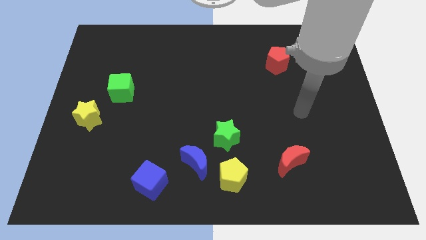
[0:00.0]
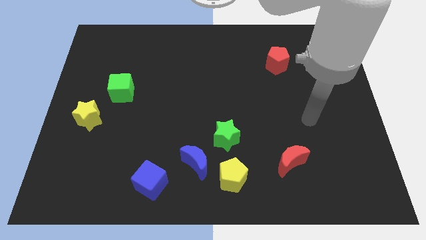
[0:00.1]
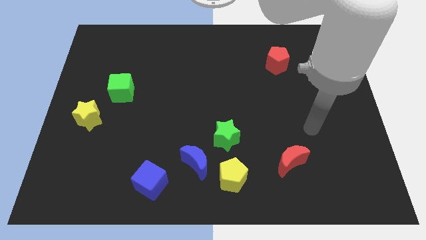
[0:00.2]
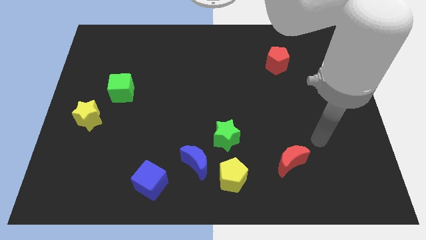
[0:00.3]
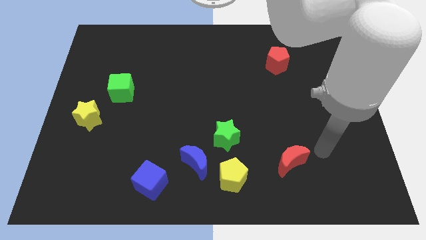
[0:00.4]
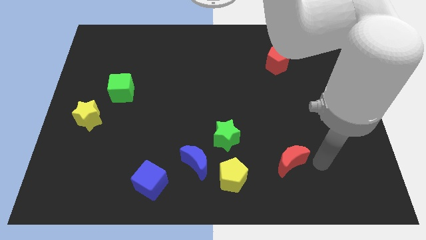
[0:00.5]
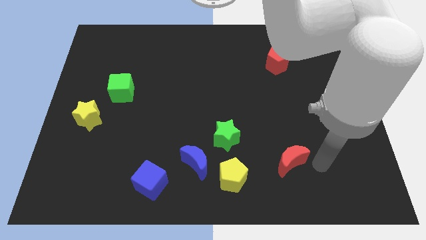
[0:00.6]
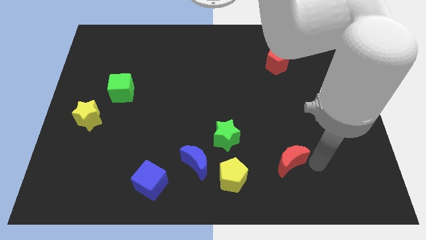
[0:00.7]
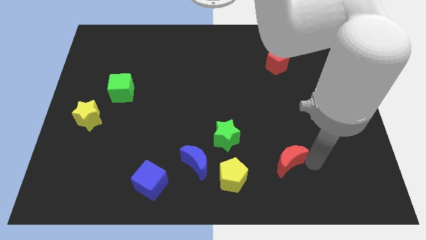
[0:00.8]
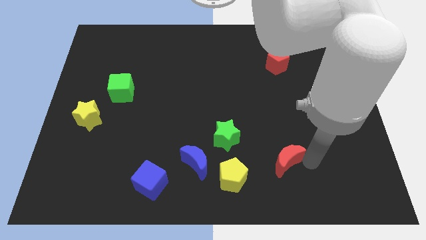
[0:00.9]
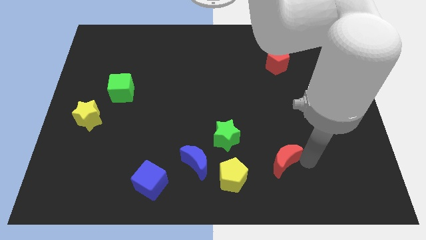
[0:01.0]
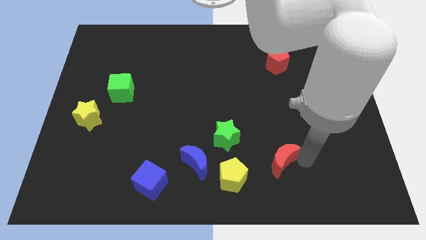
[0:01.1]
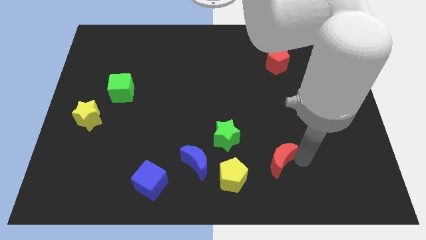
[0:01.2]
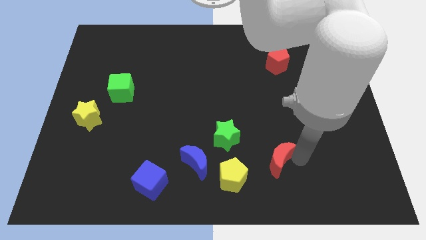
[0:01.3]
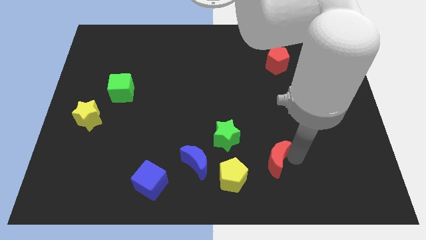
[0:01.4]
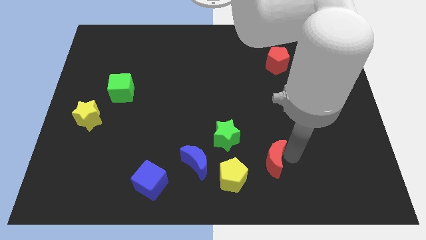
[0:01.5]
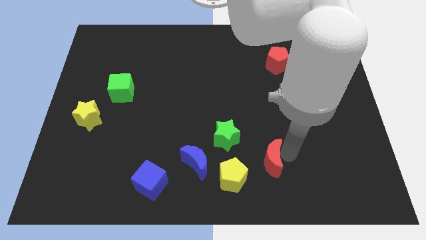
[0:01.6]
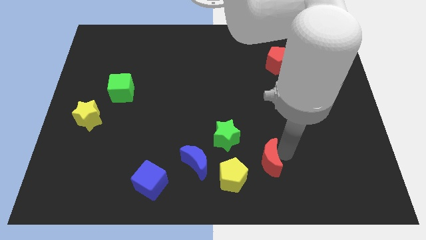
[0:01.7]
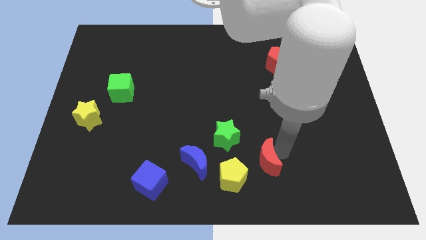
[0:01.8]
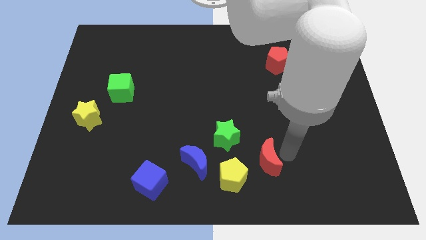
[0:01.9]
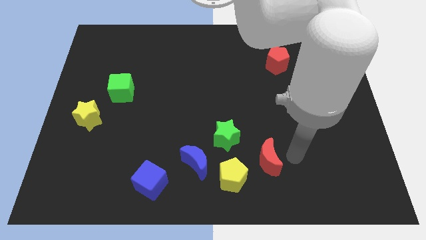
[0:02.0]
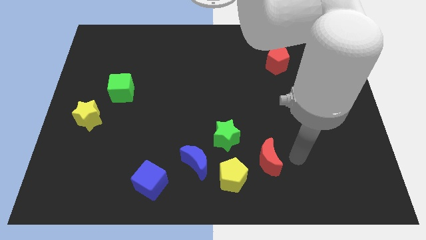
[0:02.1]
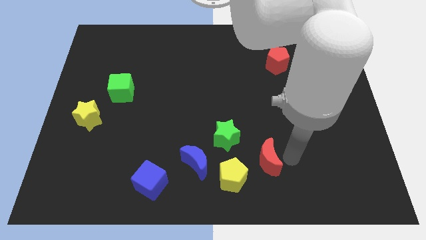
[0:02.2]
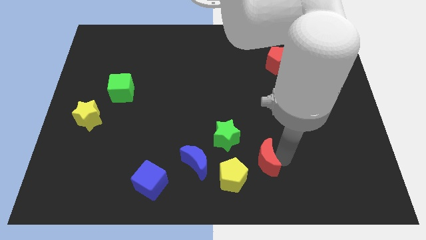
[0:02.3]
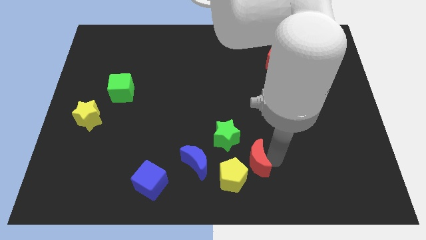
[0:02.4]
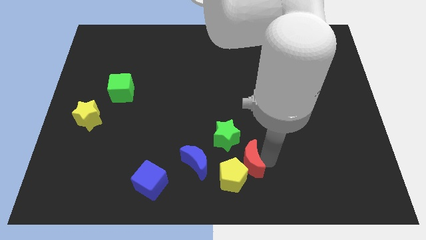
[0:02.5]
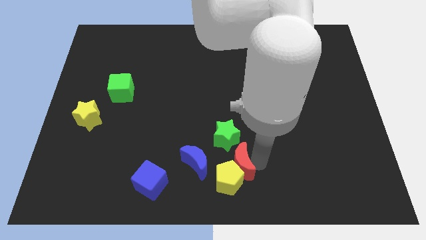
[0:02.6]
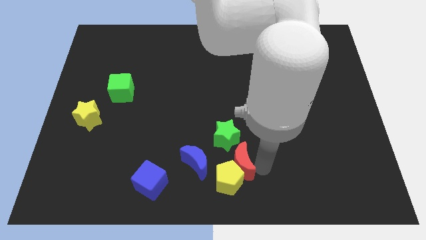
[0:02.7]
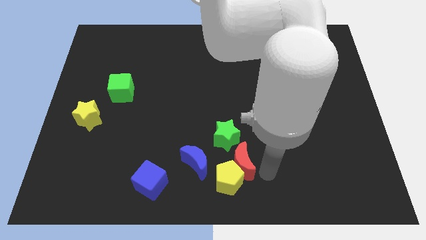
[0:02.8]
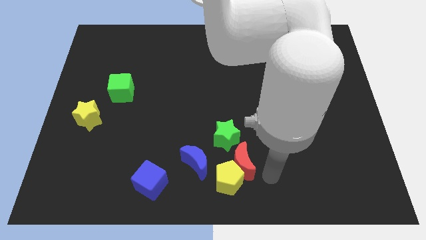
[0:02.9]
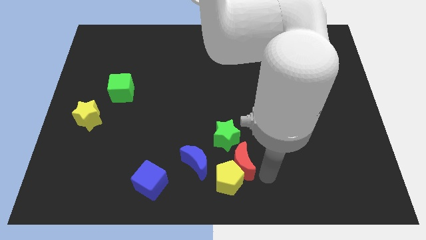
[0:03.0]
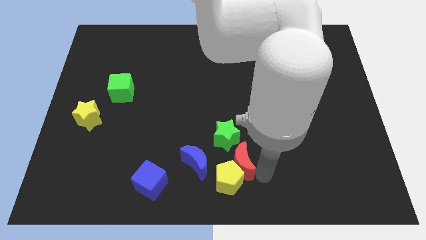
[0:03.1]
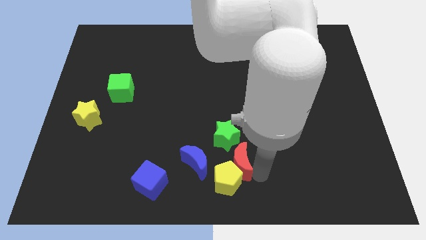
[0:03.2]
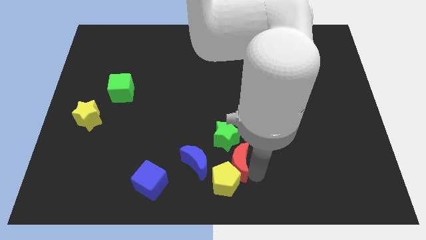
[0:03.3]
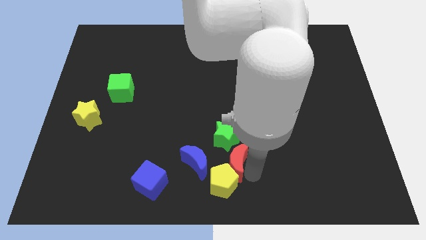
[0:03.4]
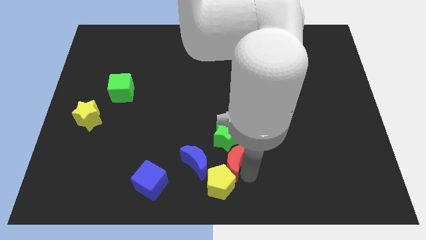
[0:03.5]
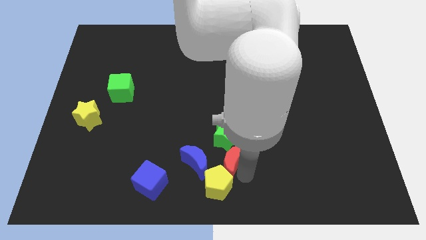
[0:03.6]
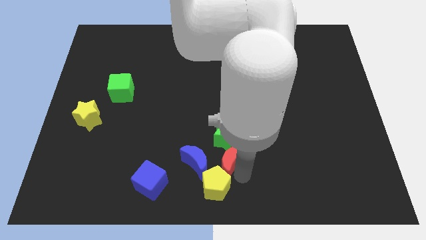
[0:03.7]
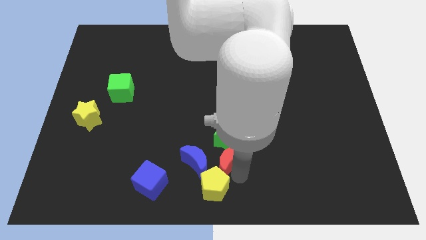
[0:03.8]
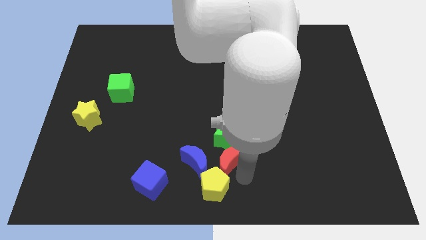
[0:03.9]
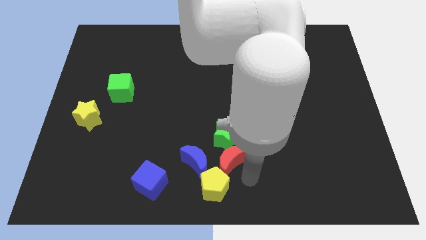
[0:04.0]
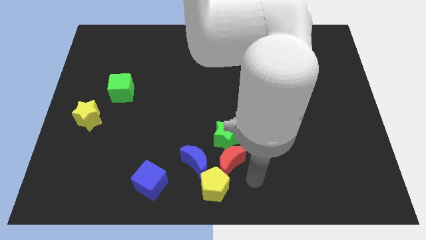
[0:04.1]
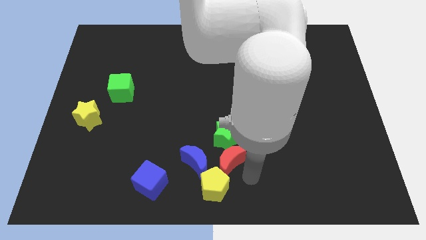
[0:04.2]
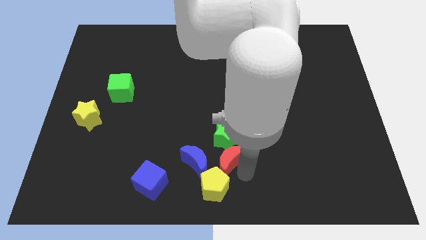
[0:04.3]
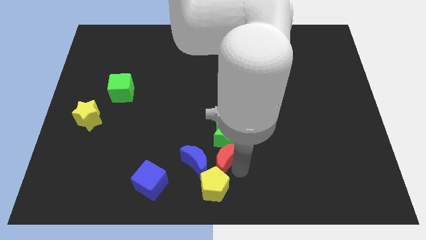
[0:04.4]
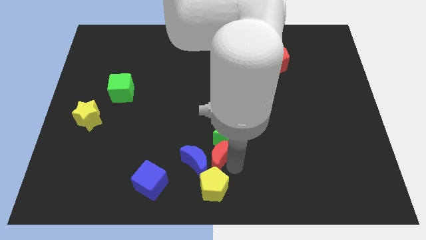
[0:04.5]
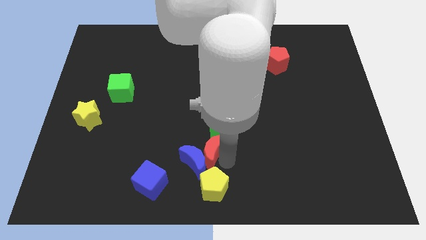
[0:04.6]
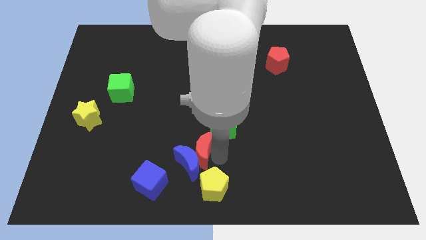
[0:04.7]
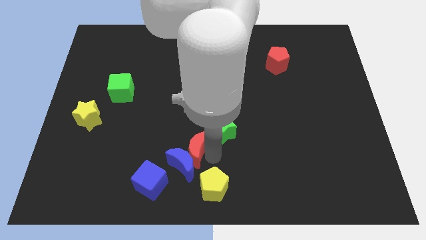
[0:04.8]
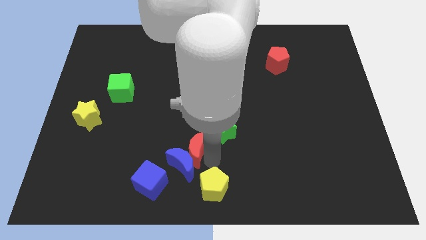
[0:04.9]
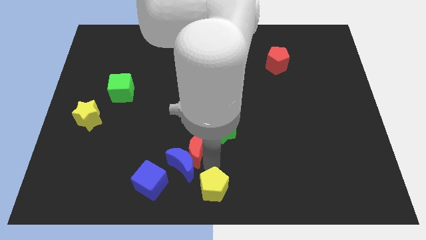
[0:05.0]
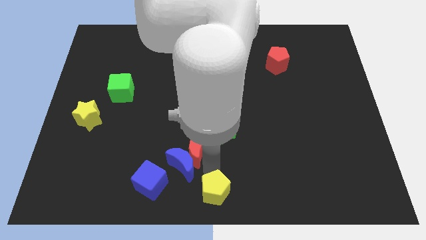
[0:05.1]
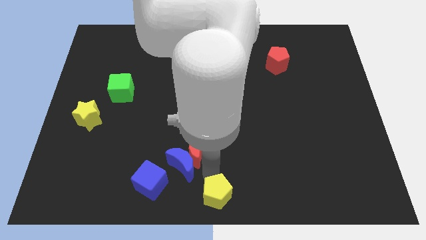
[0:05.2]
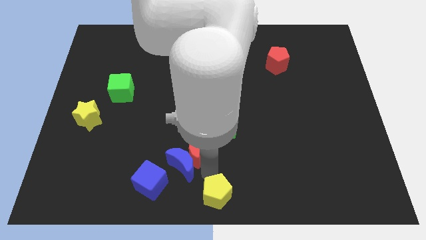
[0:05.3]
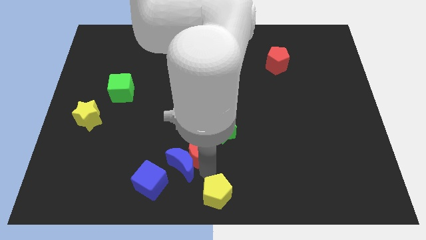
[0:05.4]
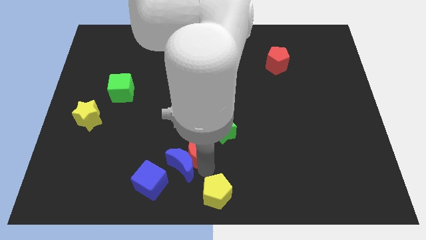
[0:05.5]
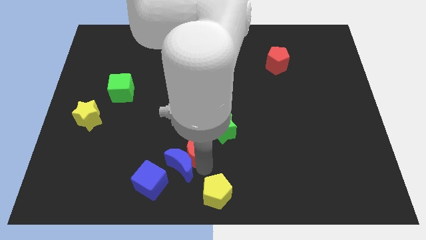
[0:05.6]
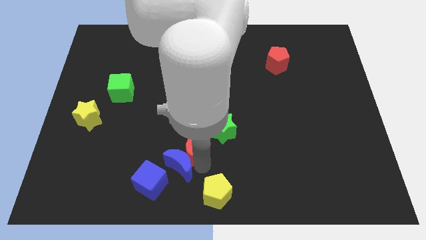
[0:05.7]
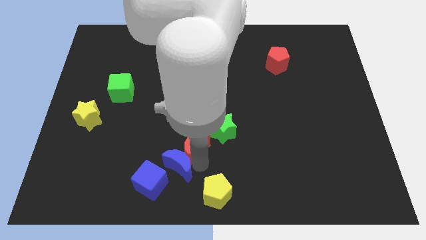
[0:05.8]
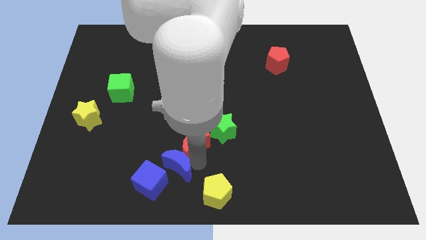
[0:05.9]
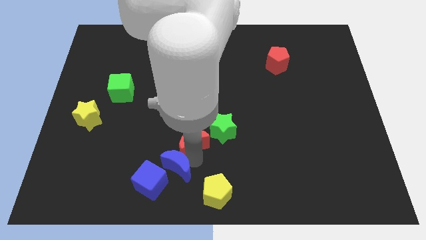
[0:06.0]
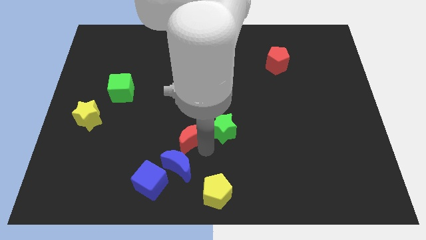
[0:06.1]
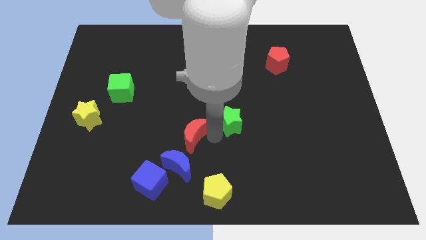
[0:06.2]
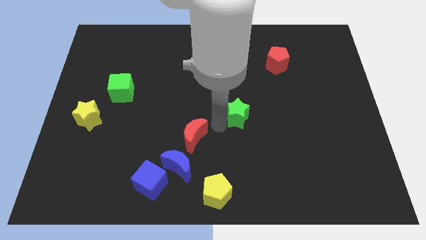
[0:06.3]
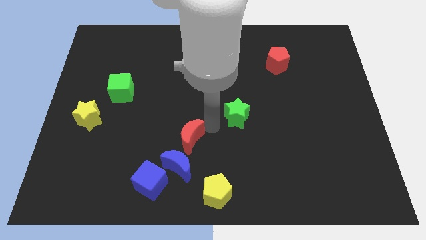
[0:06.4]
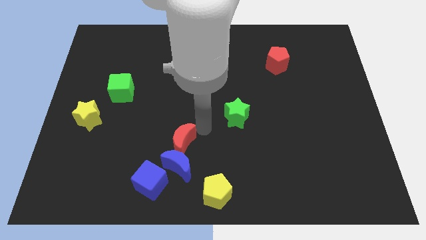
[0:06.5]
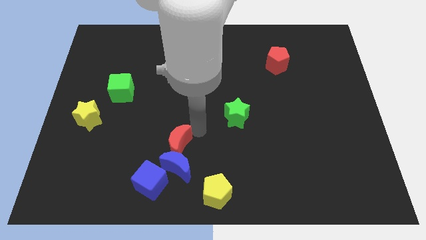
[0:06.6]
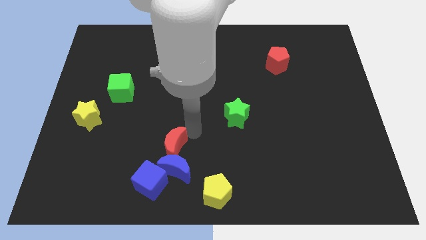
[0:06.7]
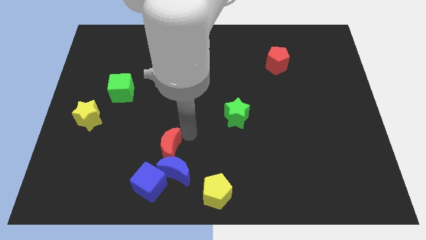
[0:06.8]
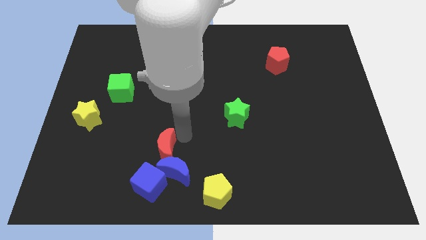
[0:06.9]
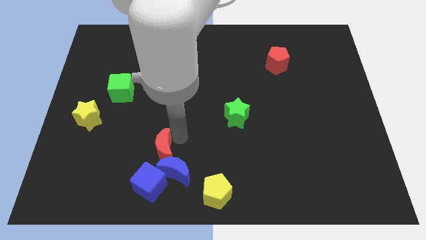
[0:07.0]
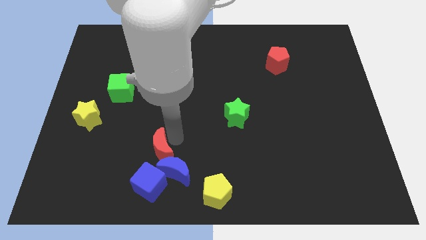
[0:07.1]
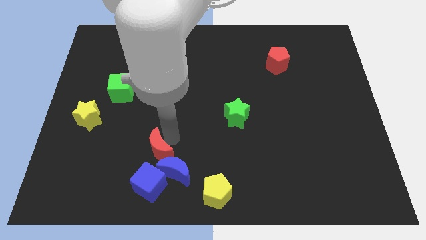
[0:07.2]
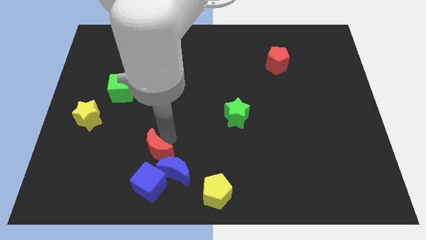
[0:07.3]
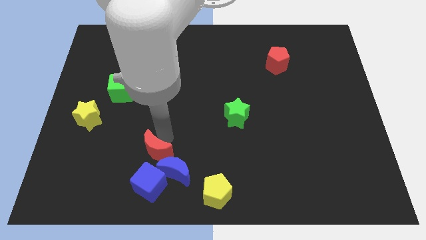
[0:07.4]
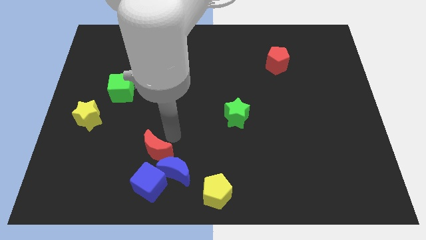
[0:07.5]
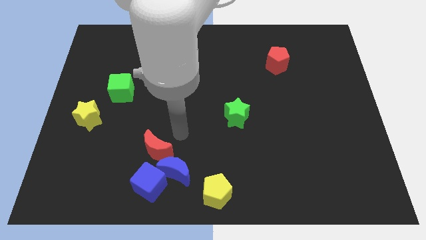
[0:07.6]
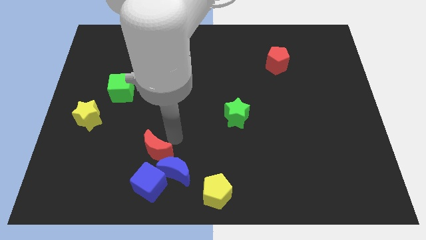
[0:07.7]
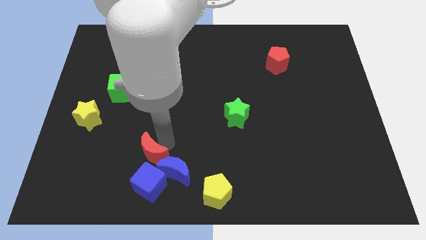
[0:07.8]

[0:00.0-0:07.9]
slide the red moon left of the blue moon

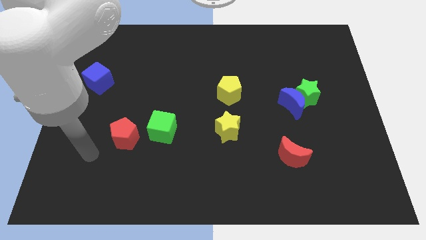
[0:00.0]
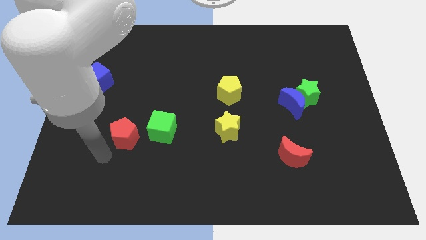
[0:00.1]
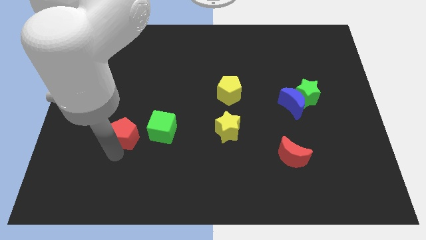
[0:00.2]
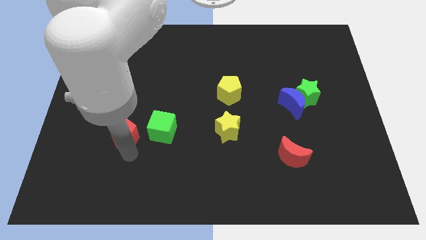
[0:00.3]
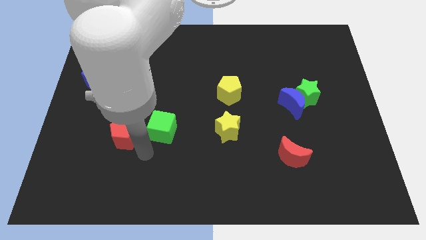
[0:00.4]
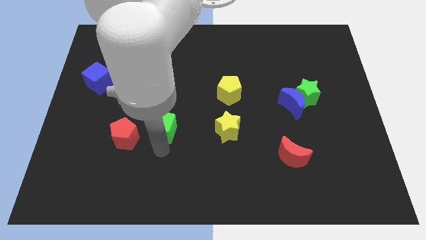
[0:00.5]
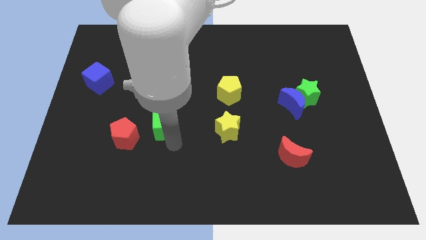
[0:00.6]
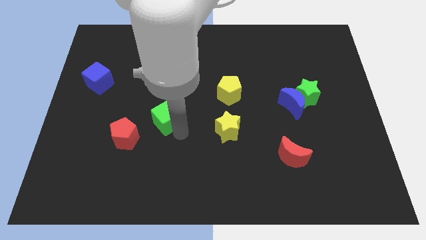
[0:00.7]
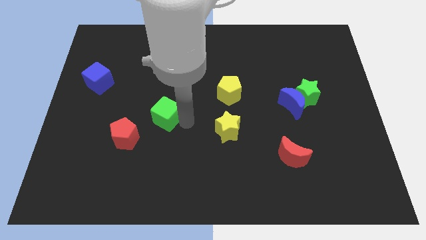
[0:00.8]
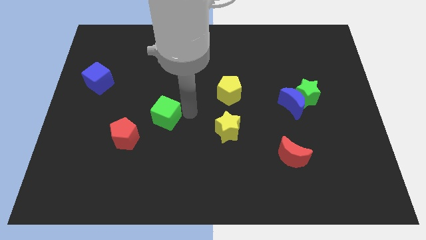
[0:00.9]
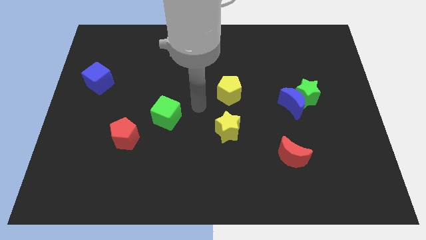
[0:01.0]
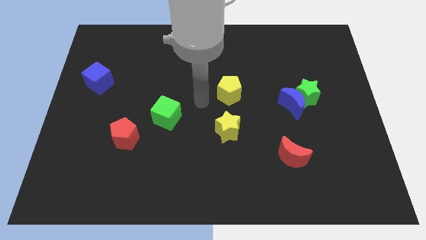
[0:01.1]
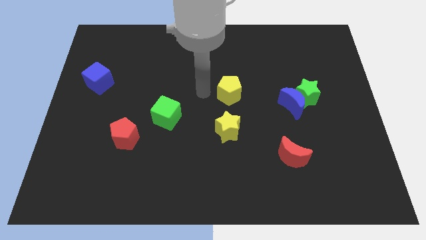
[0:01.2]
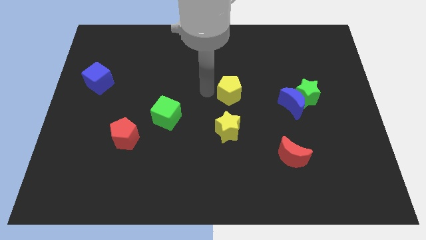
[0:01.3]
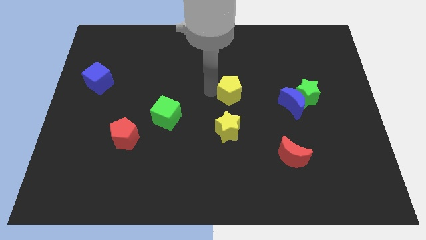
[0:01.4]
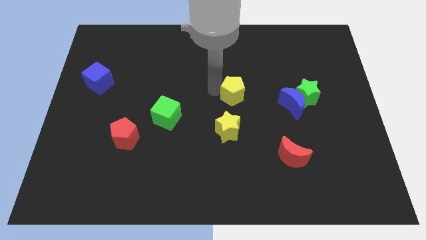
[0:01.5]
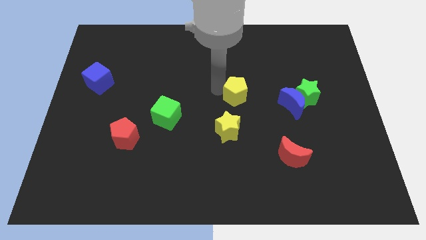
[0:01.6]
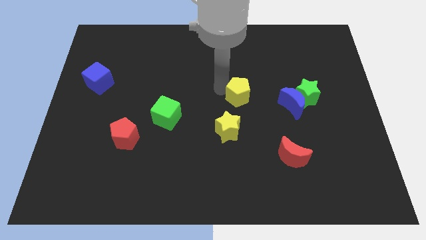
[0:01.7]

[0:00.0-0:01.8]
push the yellow pentagon just left of the green star
